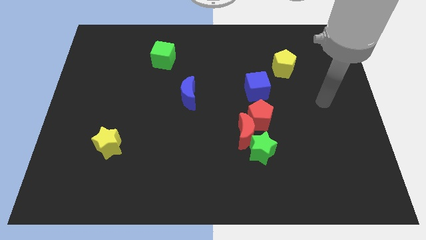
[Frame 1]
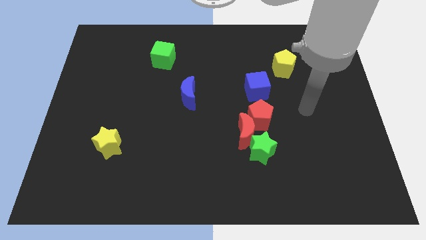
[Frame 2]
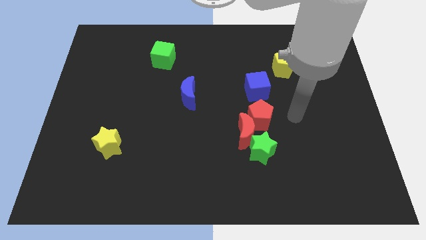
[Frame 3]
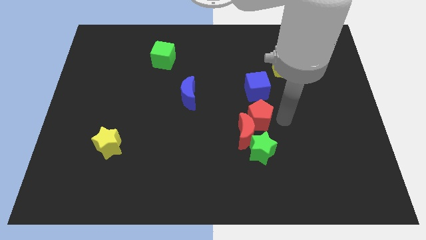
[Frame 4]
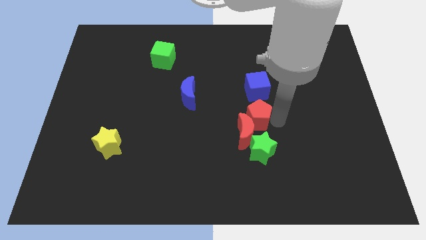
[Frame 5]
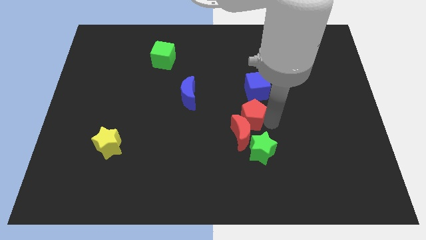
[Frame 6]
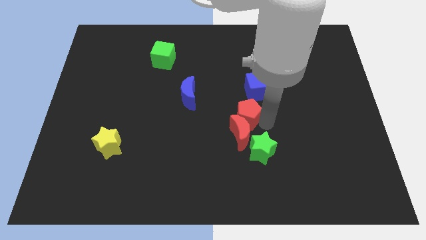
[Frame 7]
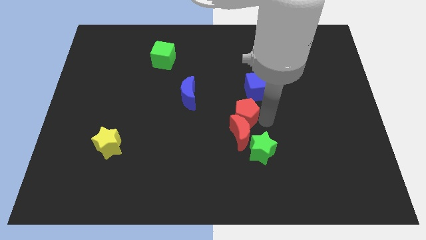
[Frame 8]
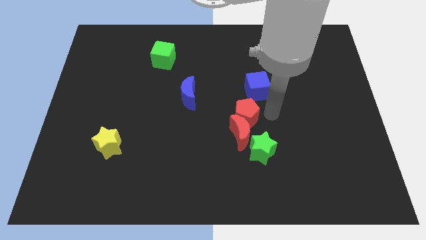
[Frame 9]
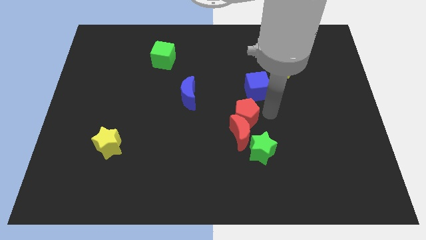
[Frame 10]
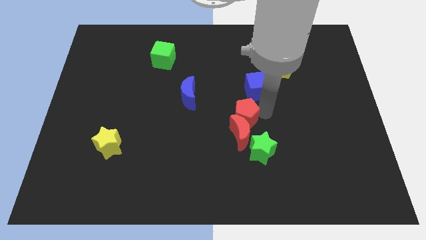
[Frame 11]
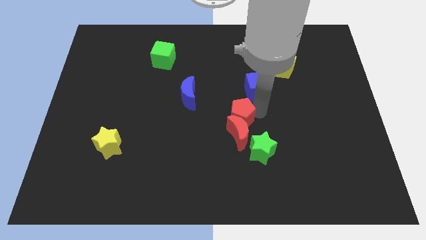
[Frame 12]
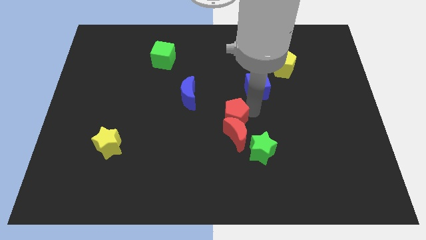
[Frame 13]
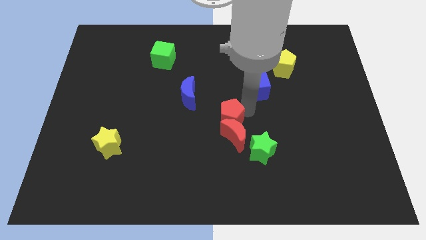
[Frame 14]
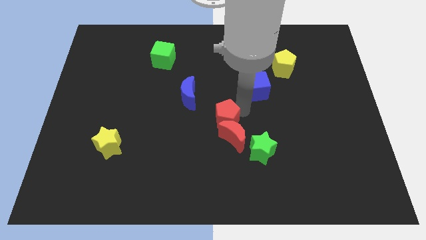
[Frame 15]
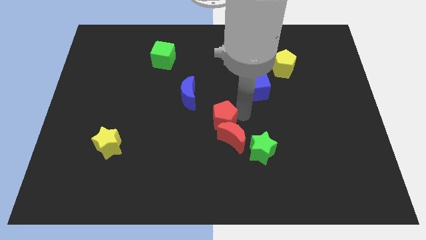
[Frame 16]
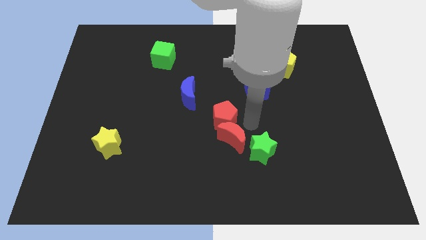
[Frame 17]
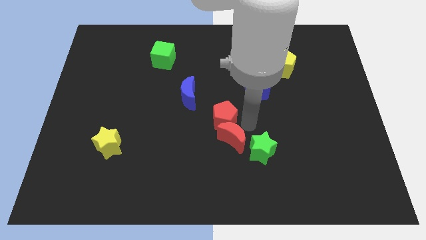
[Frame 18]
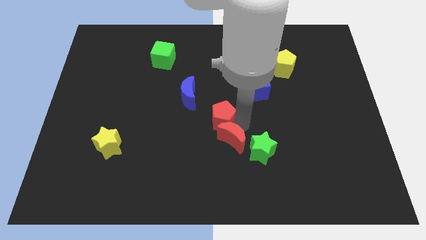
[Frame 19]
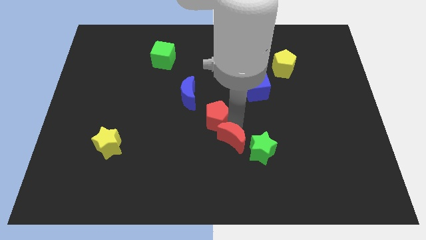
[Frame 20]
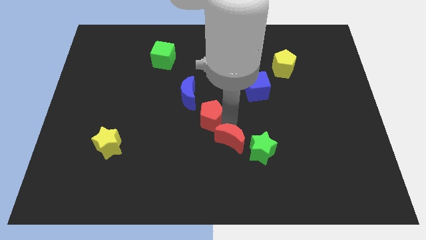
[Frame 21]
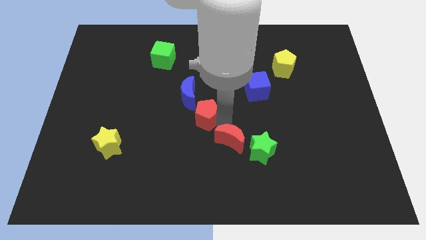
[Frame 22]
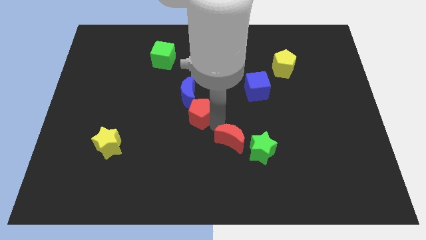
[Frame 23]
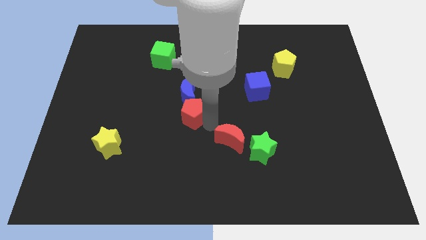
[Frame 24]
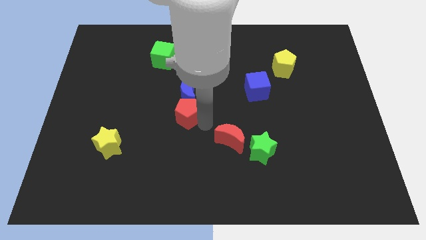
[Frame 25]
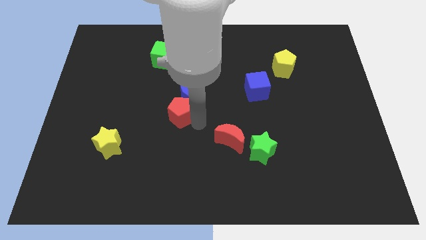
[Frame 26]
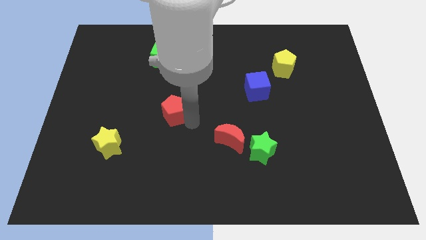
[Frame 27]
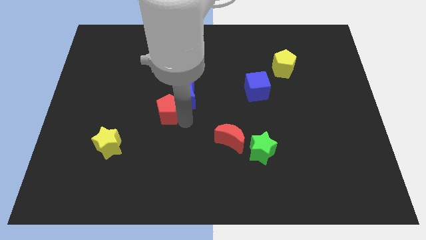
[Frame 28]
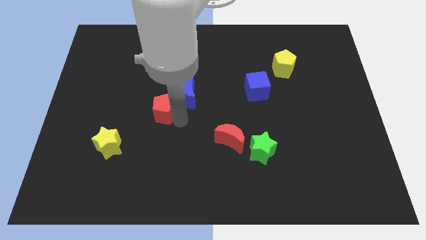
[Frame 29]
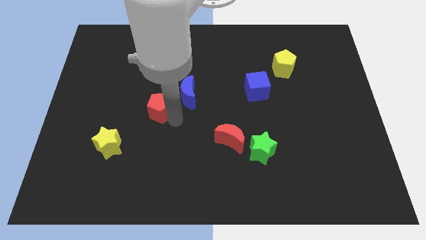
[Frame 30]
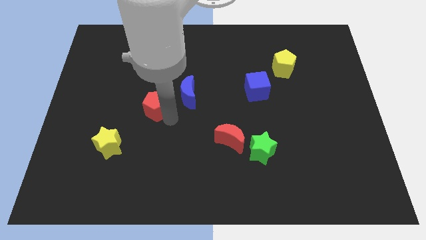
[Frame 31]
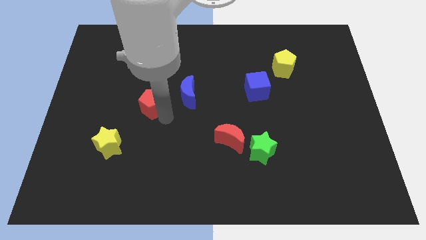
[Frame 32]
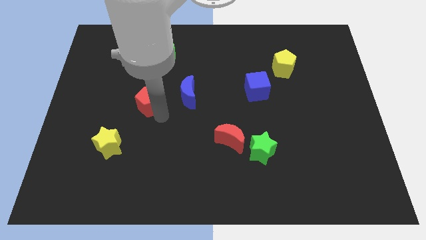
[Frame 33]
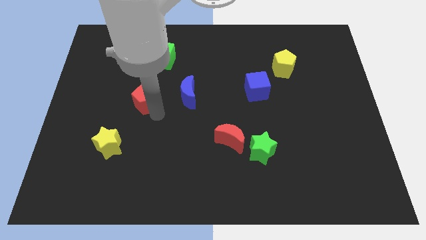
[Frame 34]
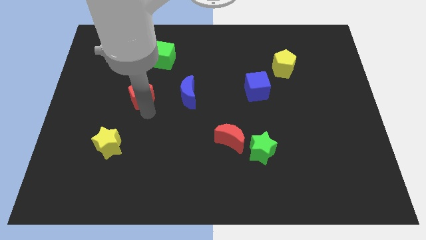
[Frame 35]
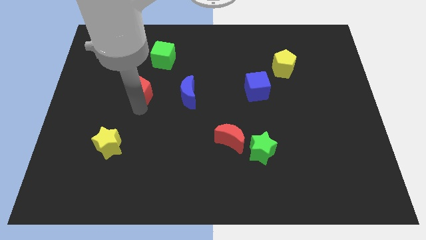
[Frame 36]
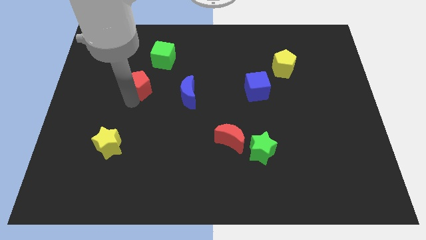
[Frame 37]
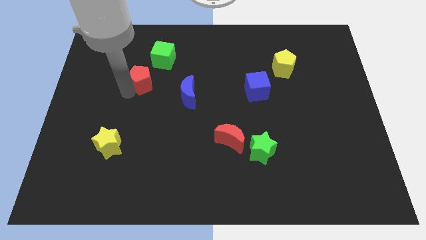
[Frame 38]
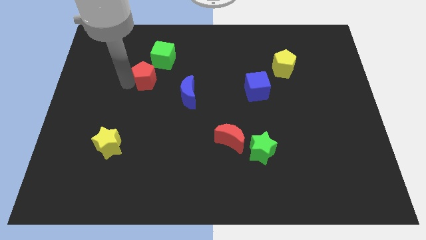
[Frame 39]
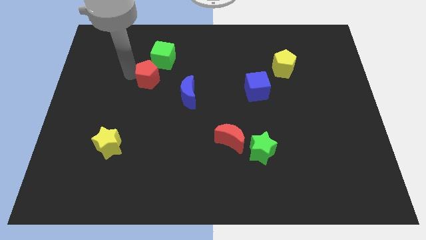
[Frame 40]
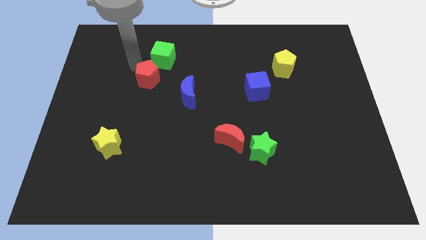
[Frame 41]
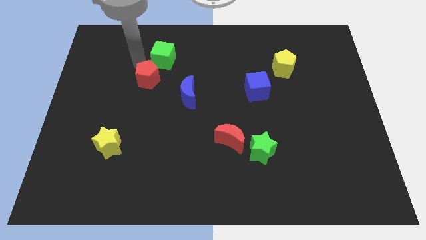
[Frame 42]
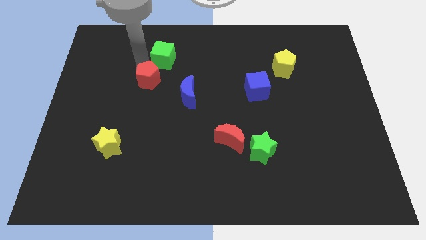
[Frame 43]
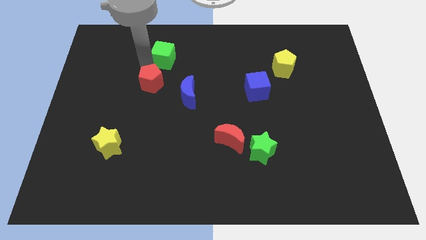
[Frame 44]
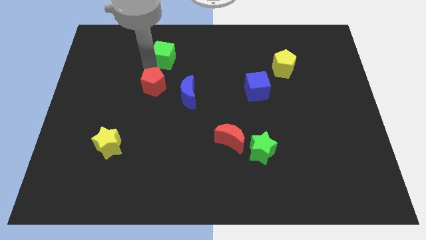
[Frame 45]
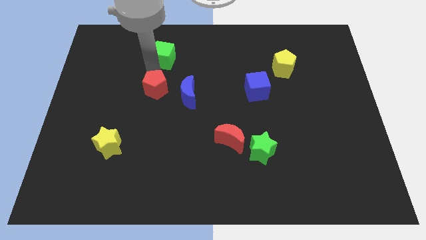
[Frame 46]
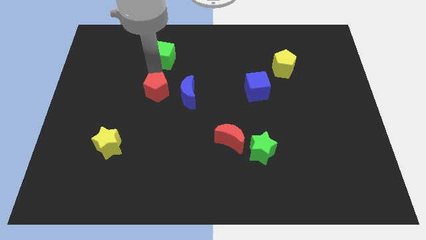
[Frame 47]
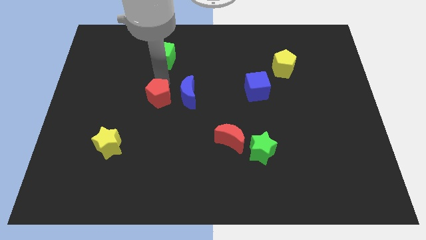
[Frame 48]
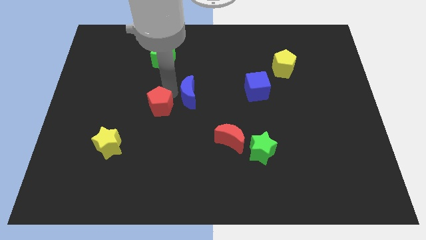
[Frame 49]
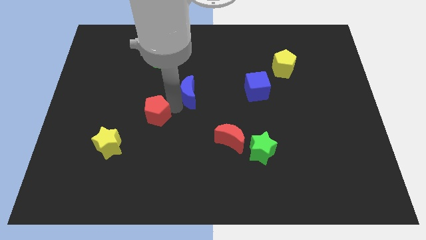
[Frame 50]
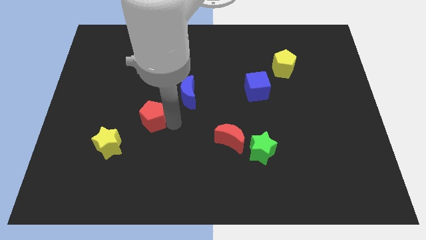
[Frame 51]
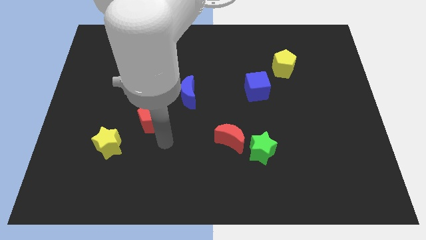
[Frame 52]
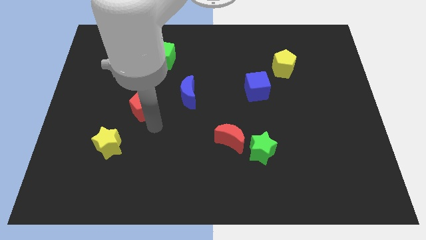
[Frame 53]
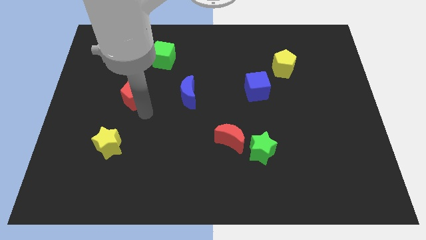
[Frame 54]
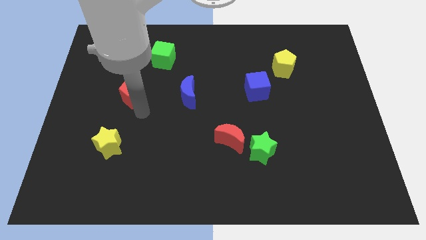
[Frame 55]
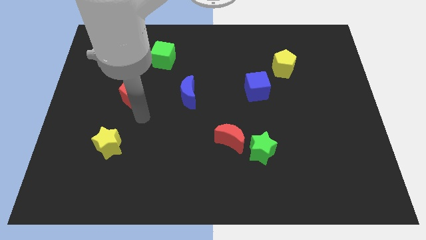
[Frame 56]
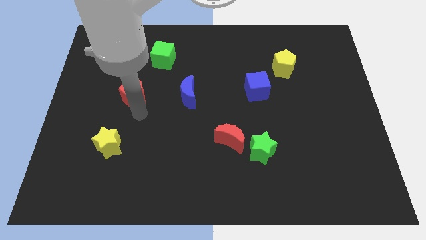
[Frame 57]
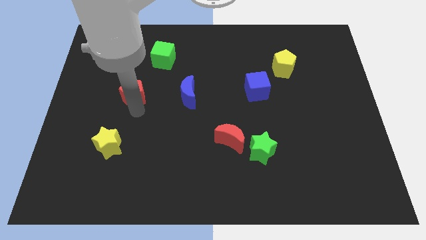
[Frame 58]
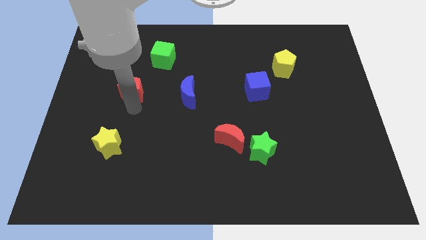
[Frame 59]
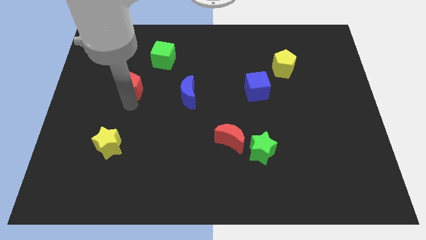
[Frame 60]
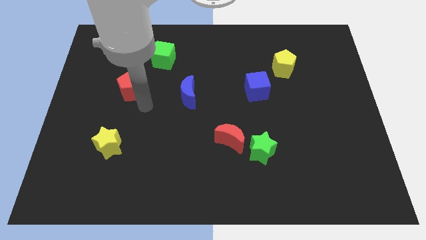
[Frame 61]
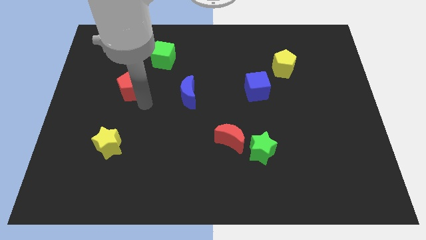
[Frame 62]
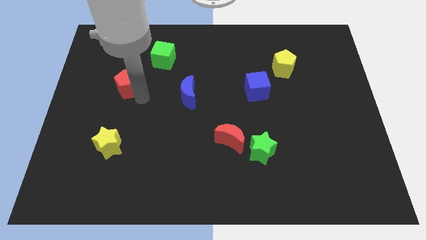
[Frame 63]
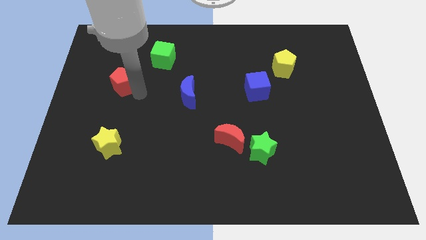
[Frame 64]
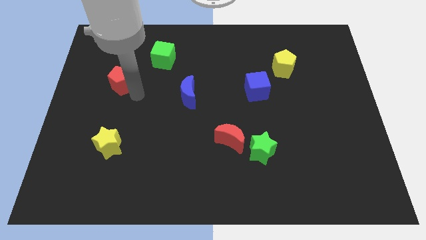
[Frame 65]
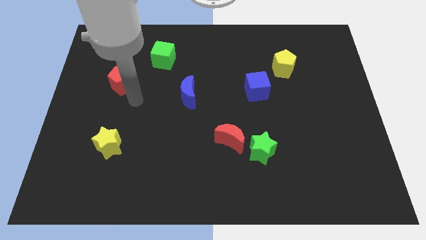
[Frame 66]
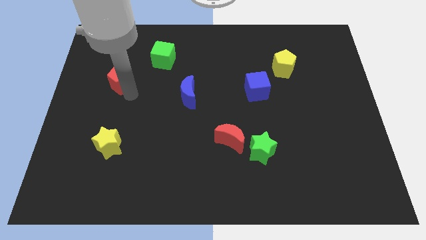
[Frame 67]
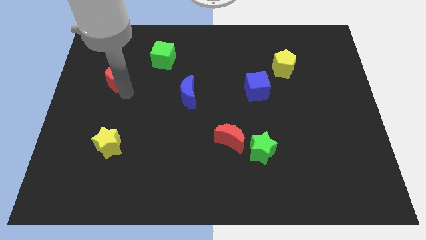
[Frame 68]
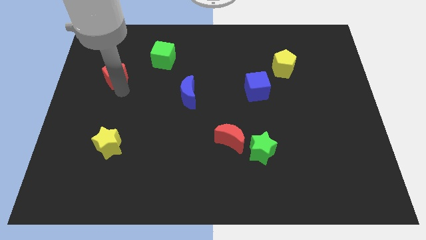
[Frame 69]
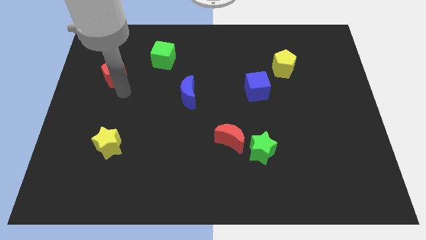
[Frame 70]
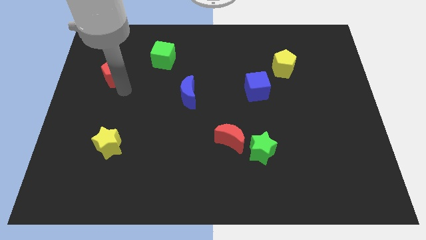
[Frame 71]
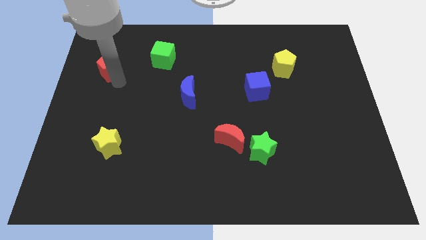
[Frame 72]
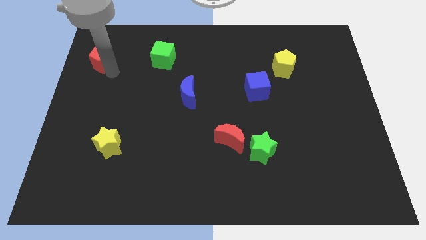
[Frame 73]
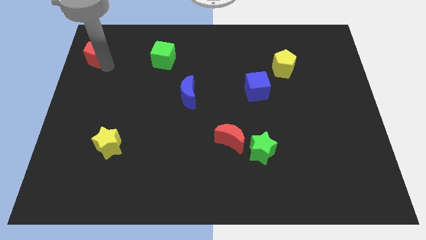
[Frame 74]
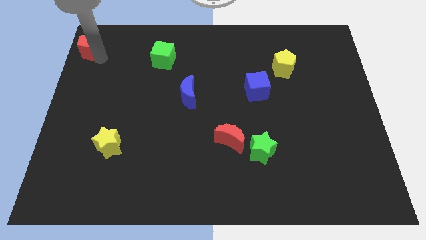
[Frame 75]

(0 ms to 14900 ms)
move the red pentagon to the upper left corner

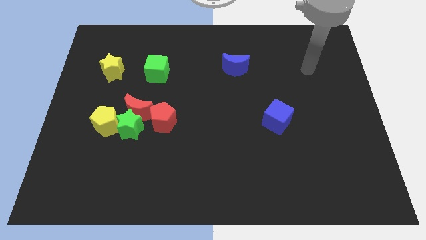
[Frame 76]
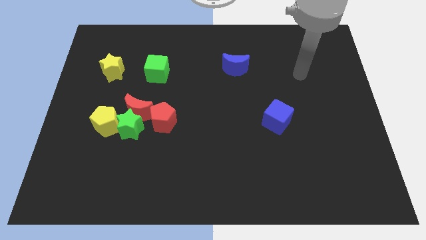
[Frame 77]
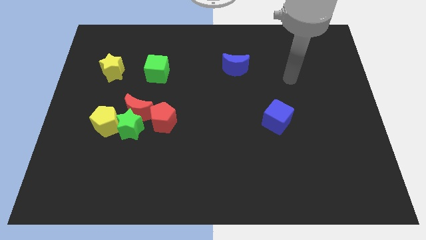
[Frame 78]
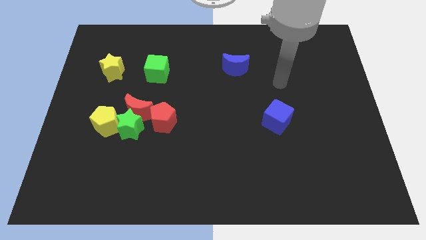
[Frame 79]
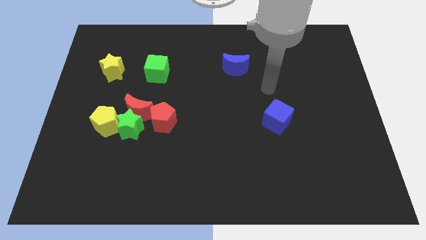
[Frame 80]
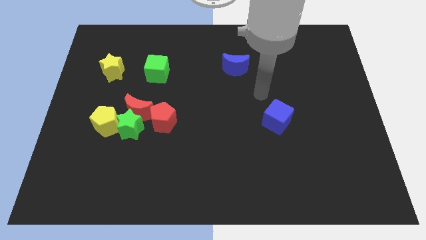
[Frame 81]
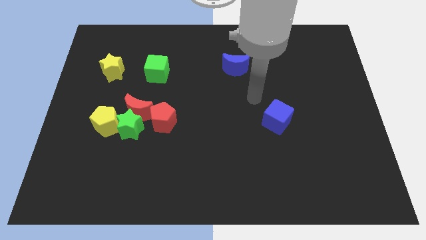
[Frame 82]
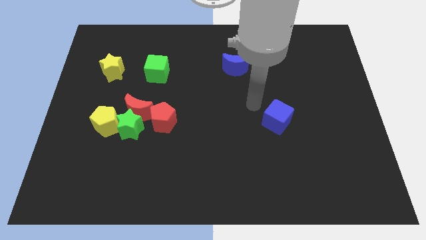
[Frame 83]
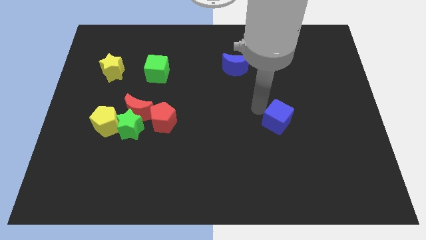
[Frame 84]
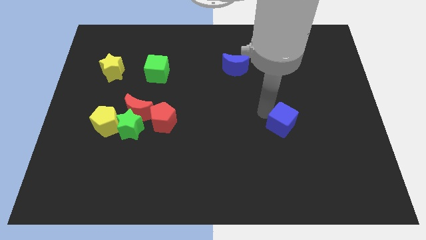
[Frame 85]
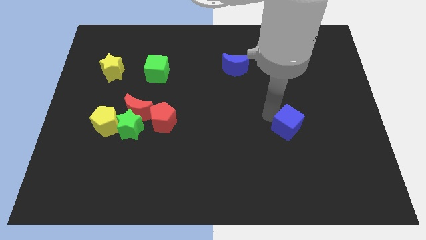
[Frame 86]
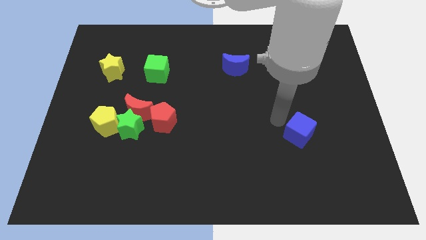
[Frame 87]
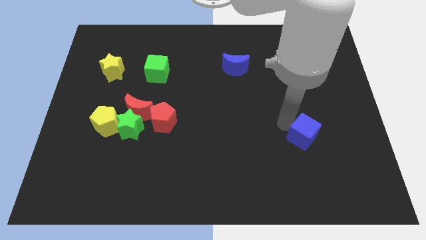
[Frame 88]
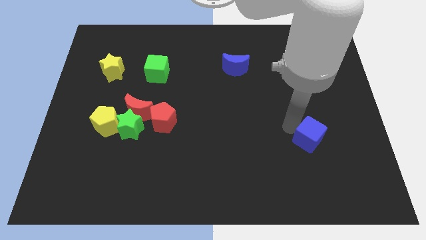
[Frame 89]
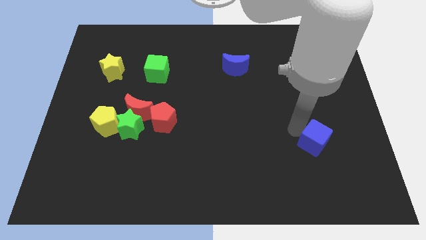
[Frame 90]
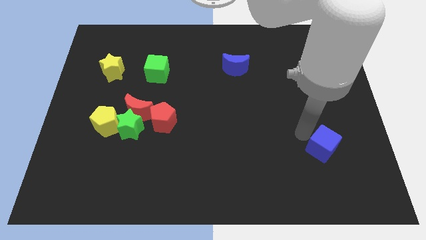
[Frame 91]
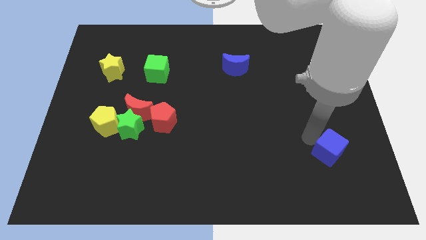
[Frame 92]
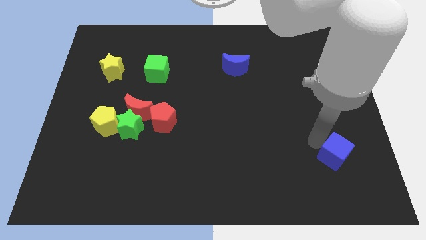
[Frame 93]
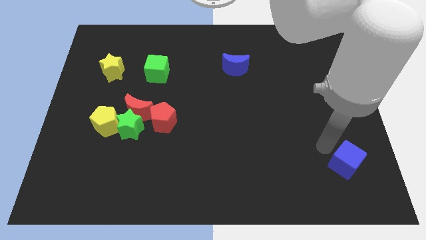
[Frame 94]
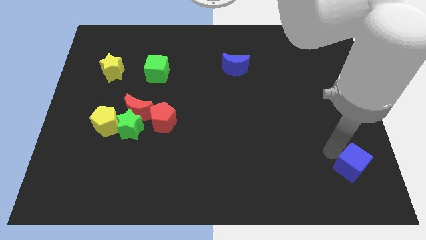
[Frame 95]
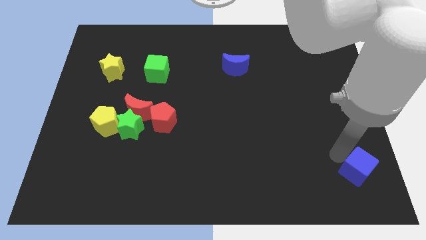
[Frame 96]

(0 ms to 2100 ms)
move the blue cube to the bottom right of the board
